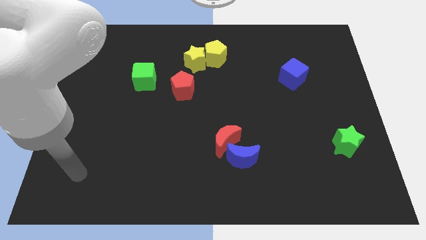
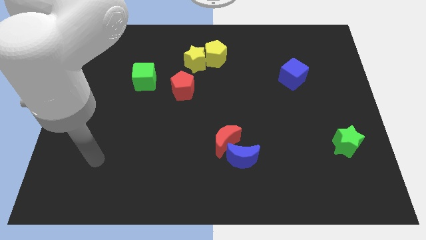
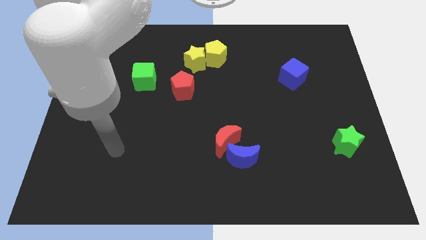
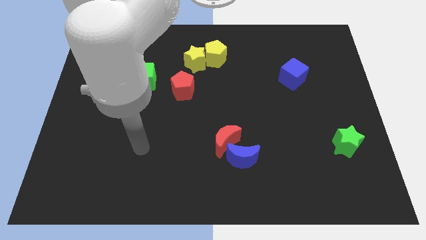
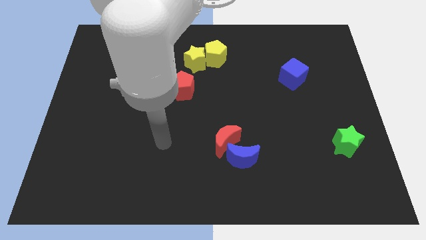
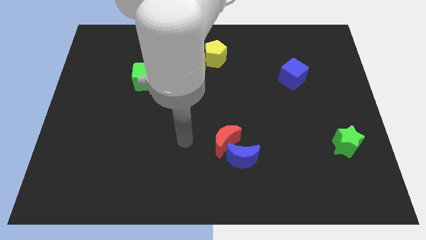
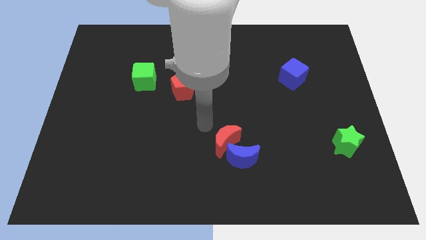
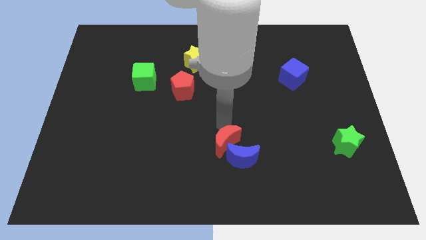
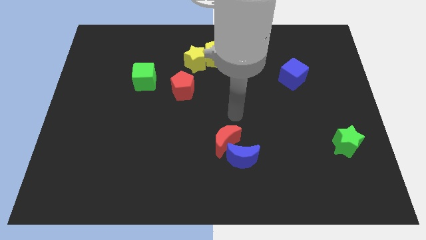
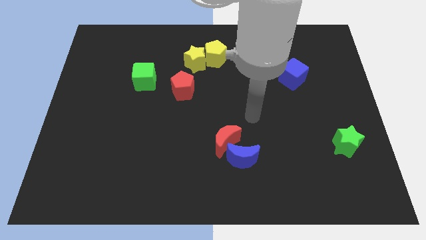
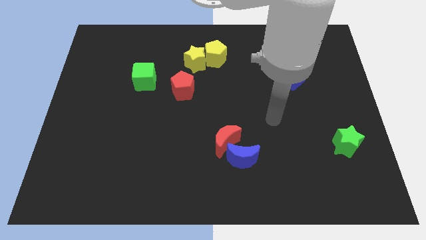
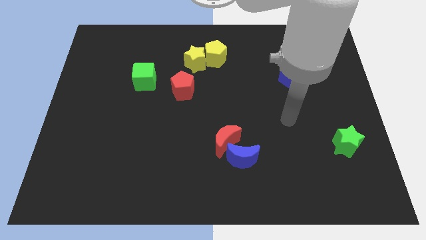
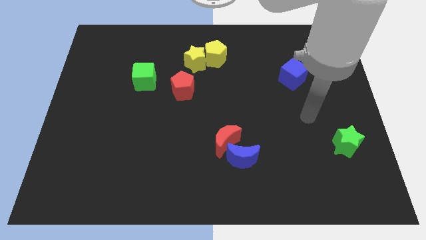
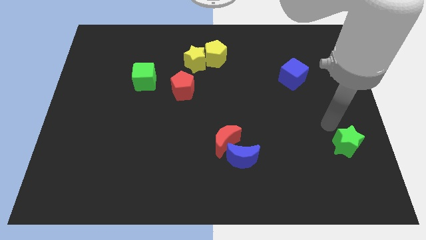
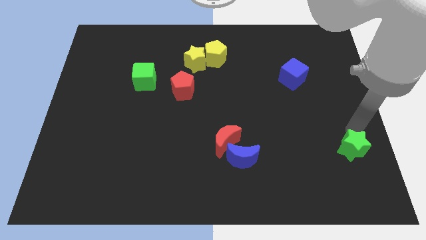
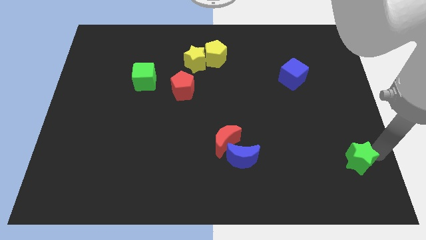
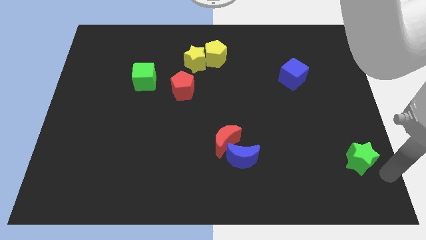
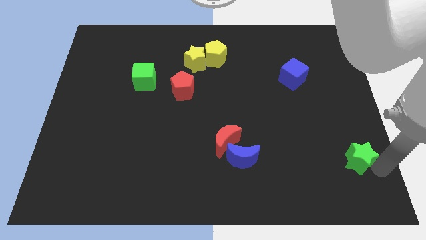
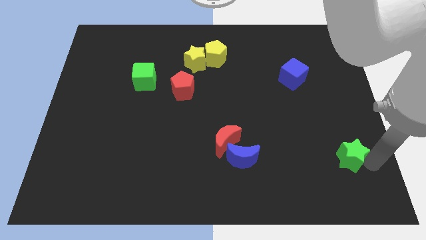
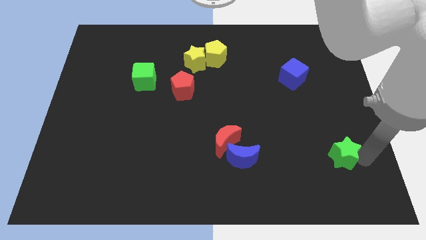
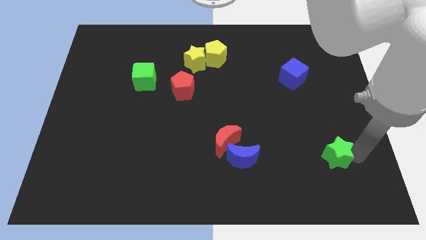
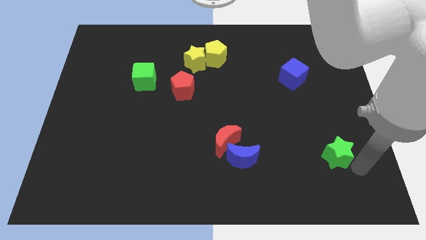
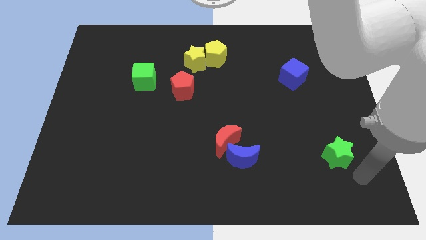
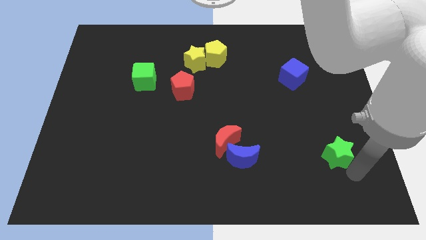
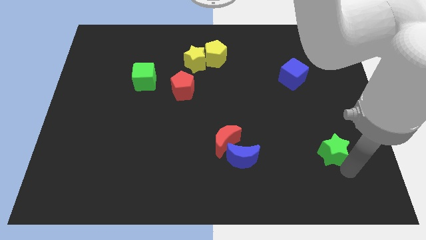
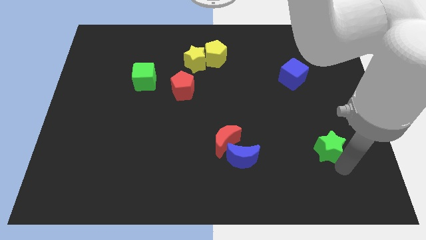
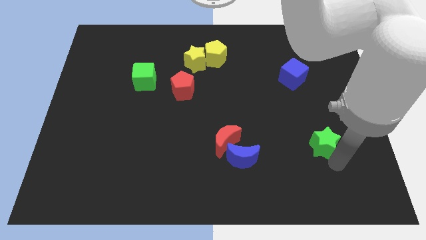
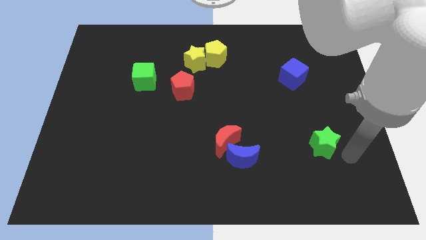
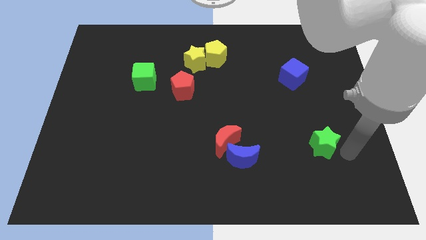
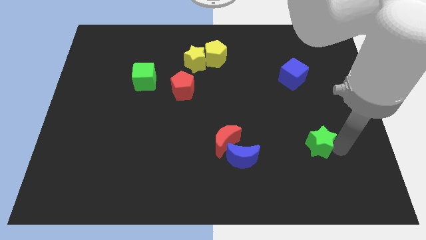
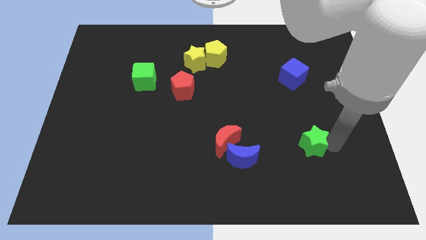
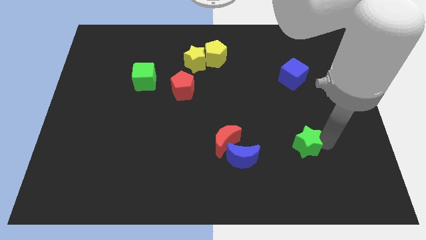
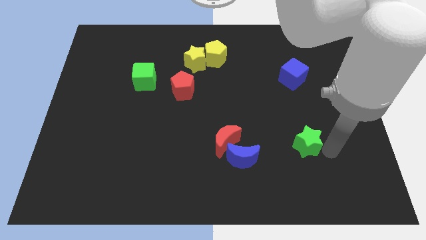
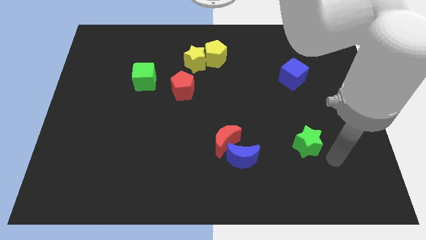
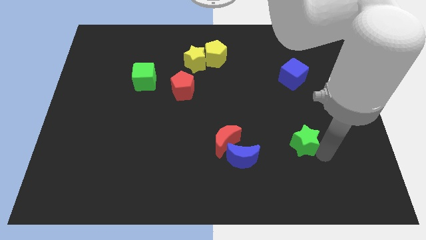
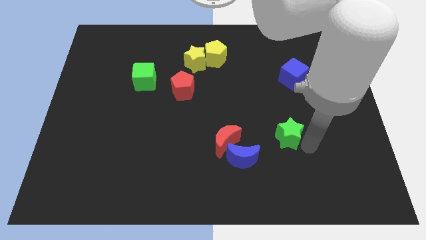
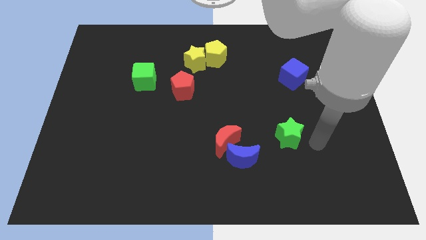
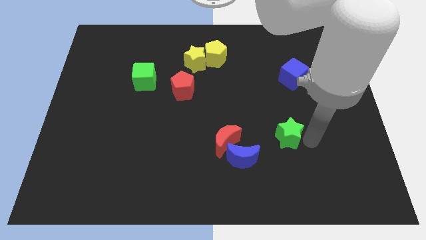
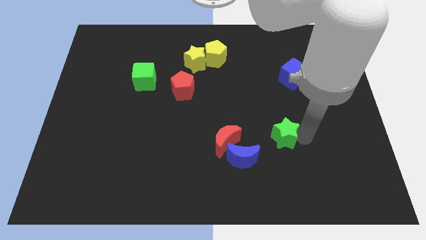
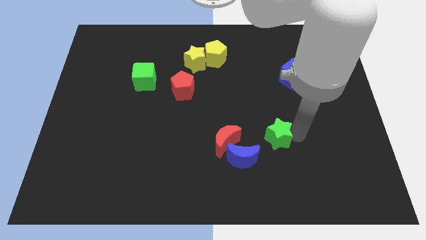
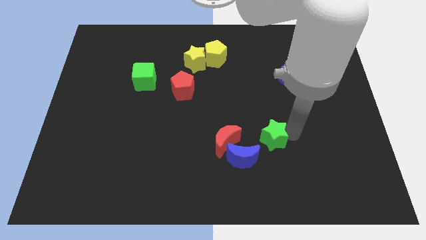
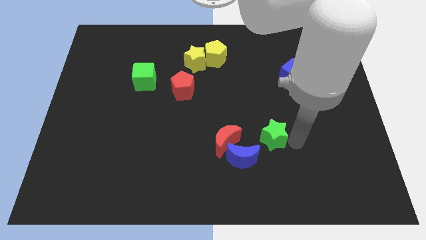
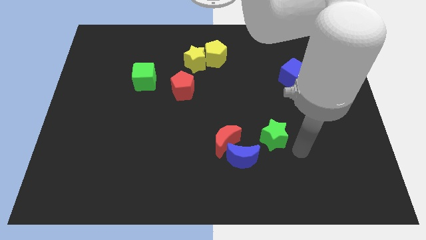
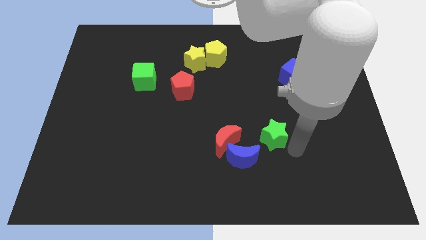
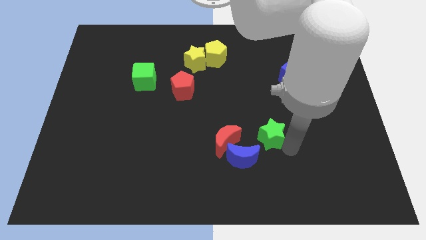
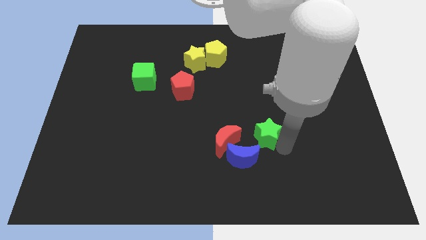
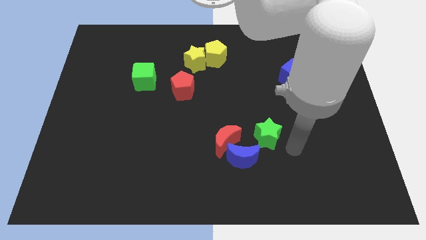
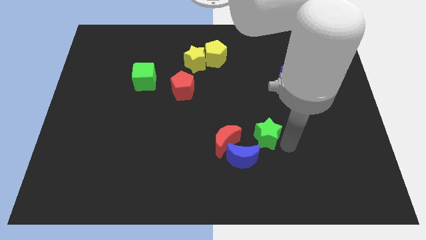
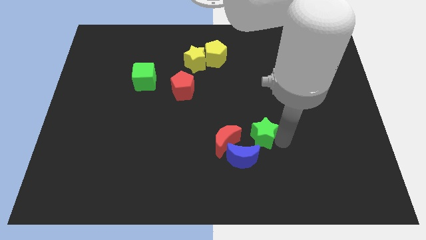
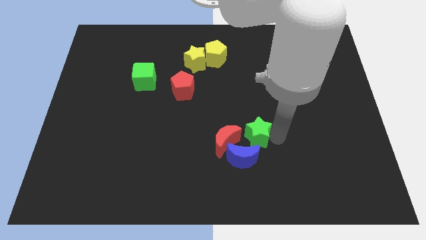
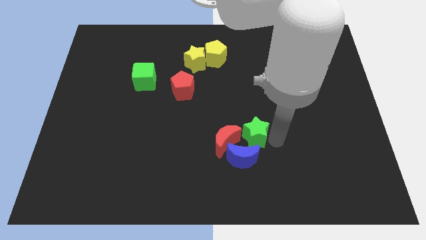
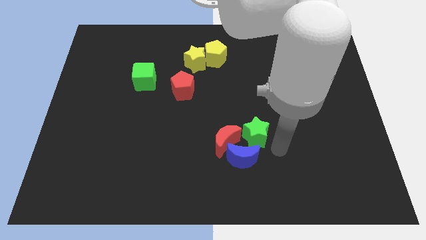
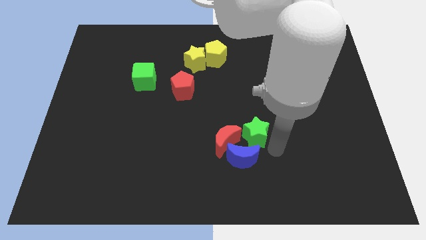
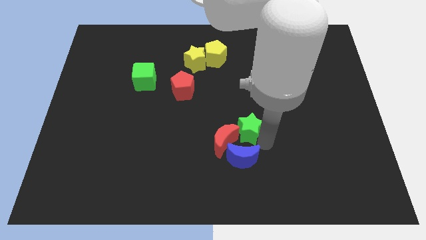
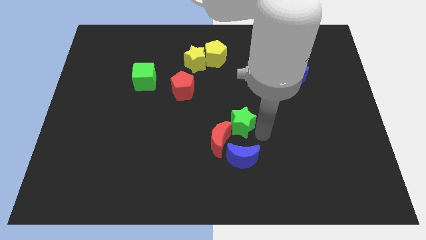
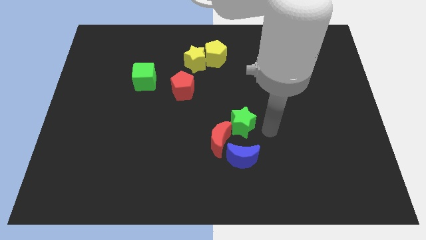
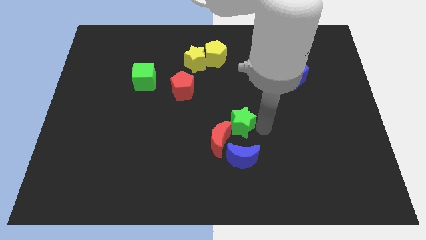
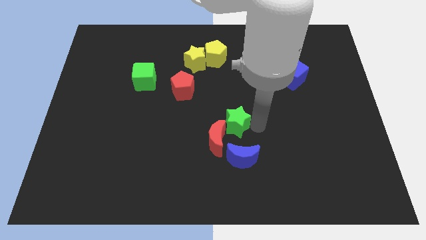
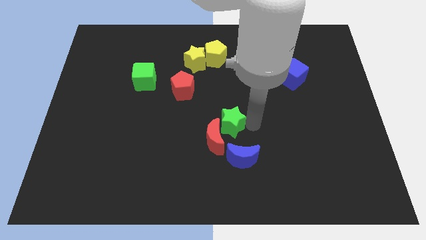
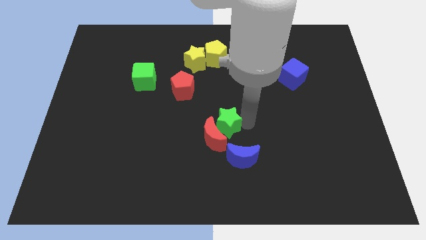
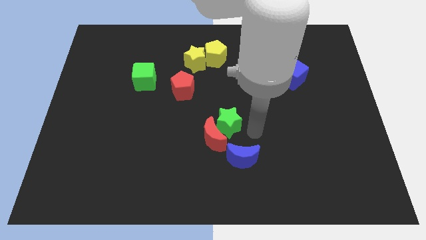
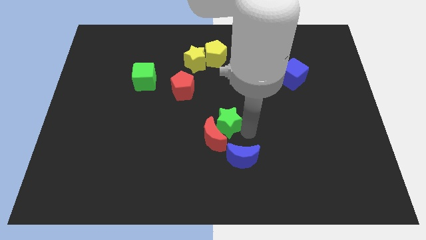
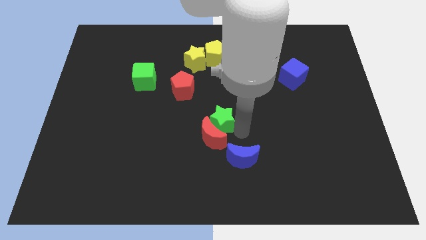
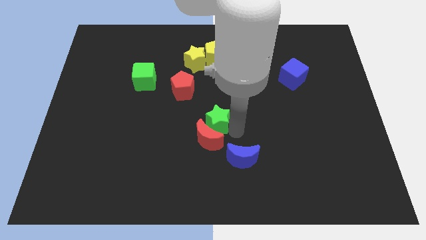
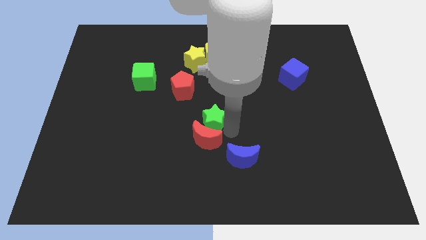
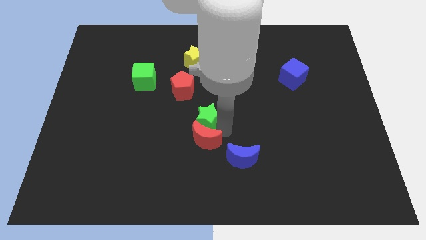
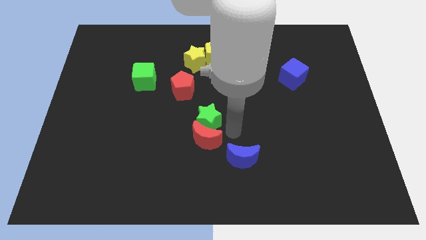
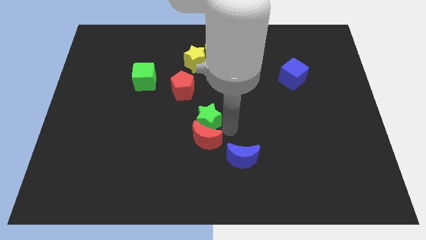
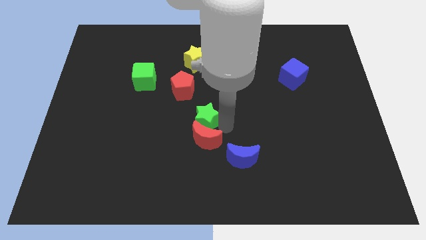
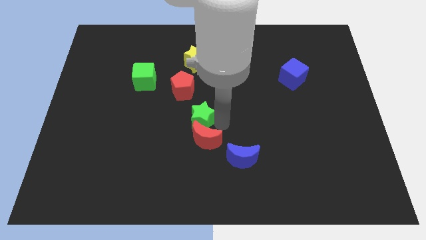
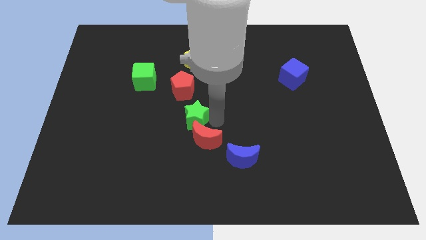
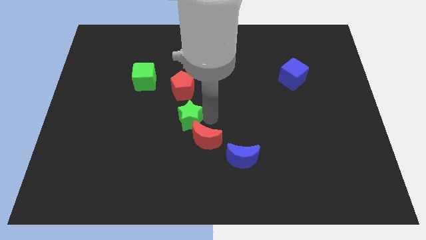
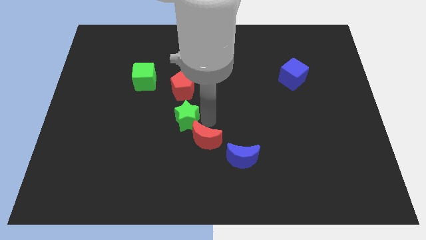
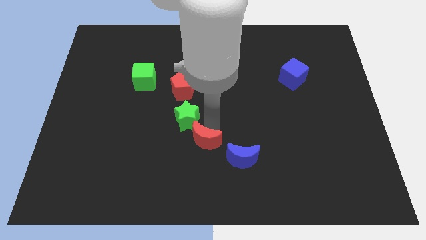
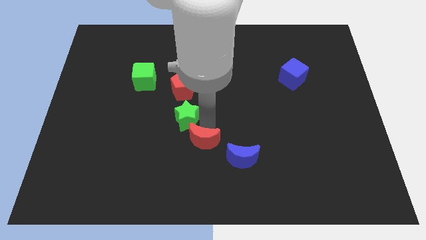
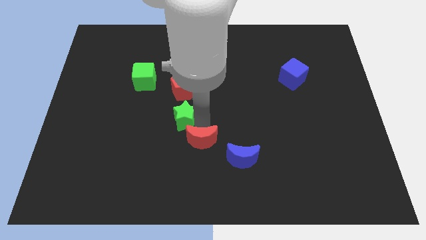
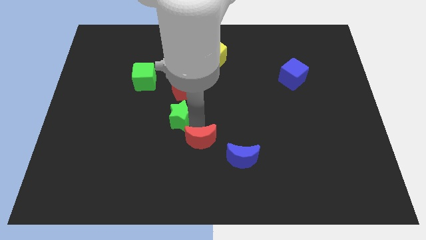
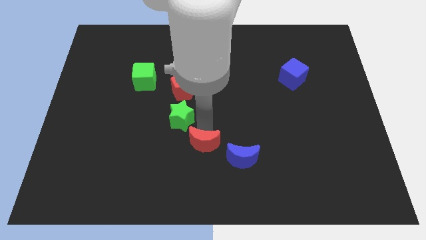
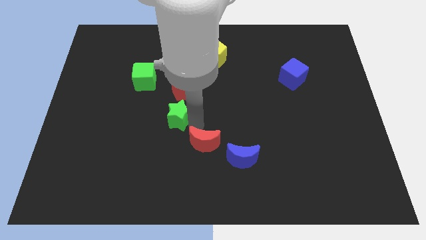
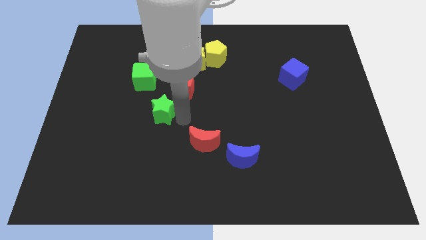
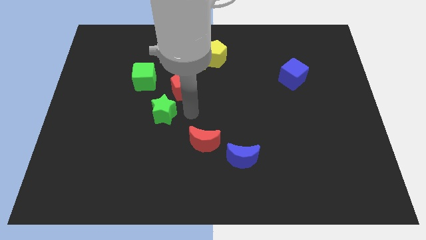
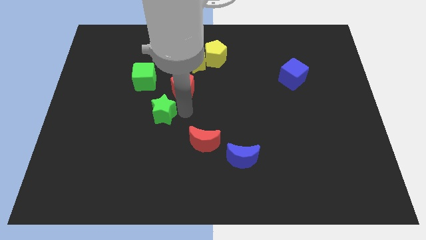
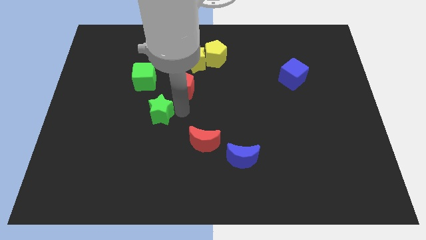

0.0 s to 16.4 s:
slide the green star to the bottom side of the green cube
